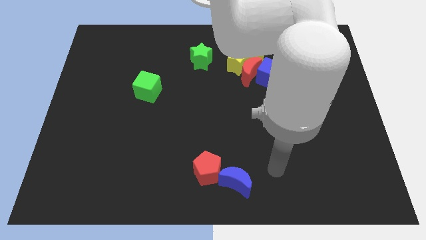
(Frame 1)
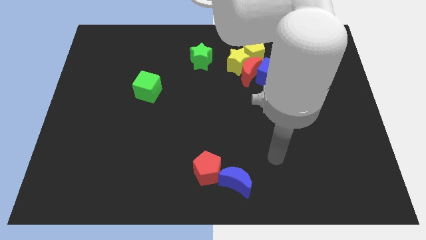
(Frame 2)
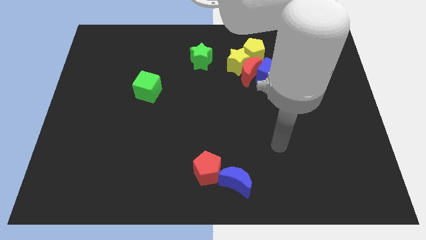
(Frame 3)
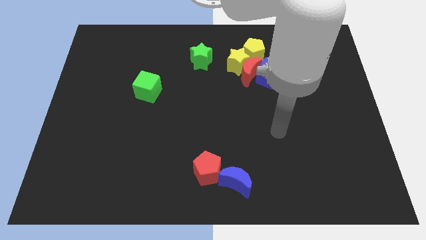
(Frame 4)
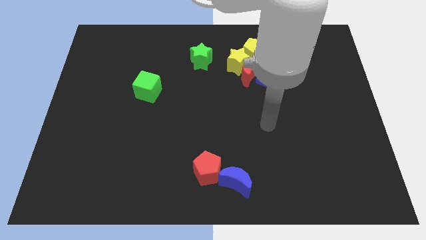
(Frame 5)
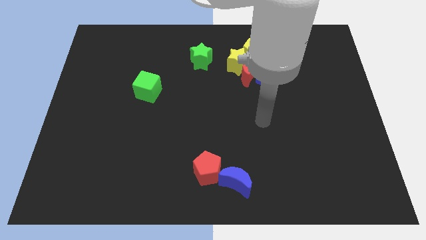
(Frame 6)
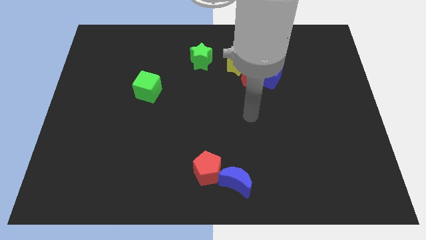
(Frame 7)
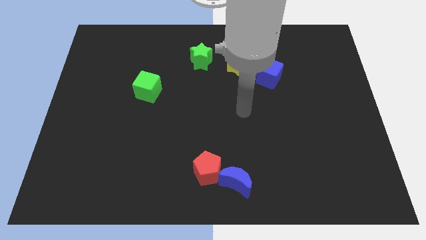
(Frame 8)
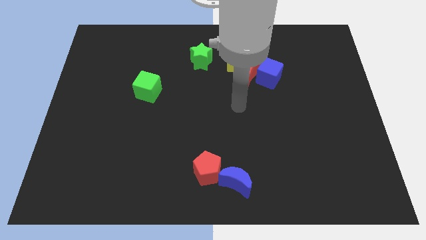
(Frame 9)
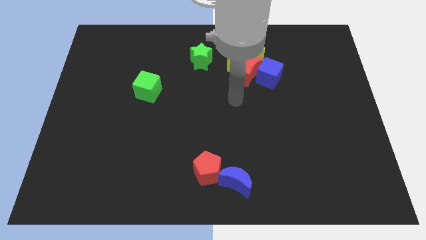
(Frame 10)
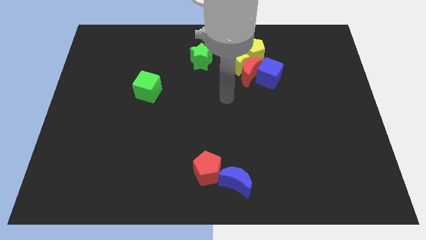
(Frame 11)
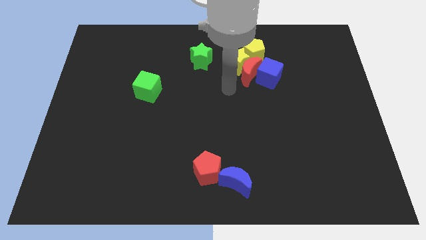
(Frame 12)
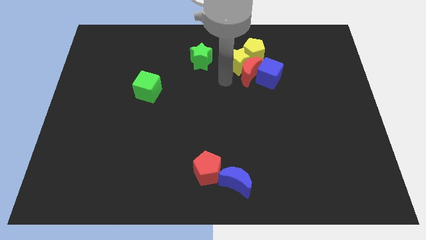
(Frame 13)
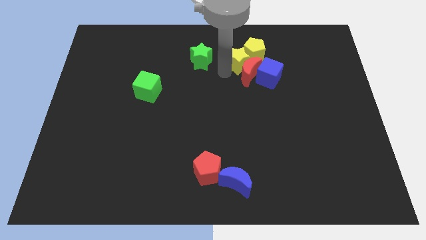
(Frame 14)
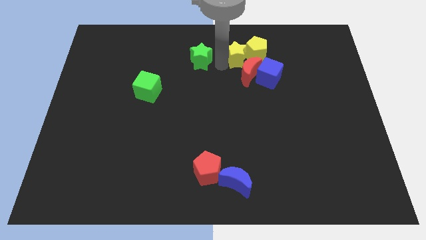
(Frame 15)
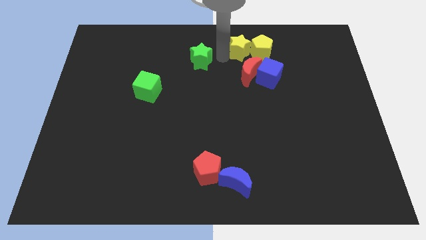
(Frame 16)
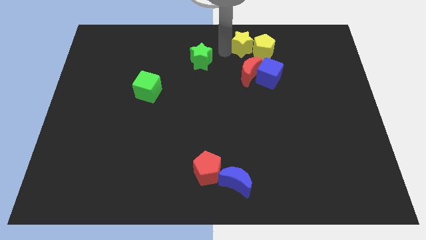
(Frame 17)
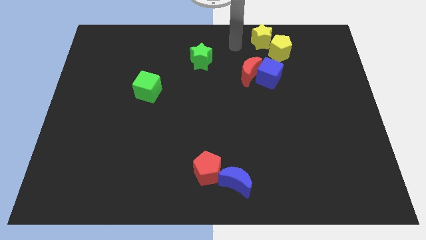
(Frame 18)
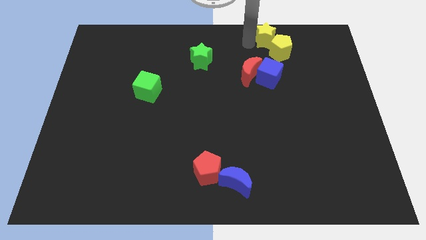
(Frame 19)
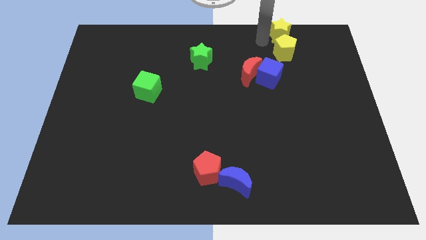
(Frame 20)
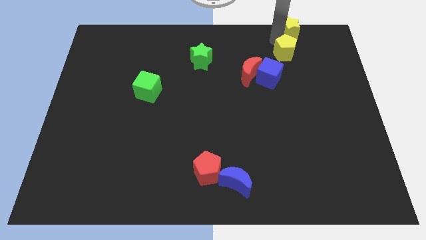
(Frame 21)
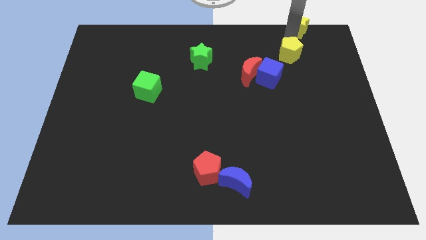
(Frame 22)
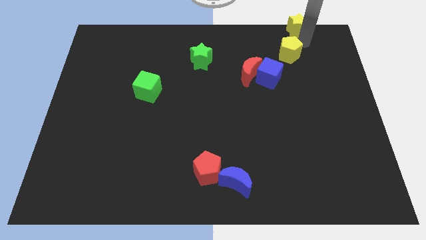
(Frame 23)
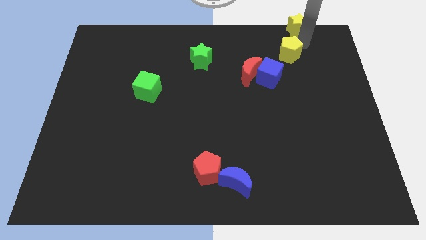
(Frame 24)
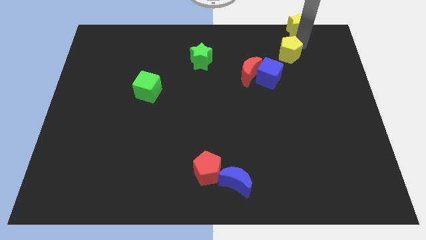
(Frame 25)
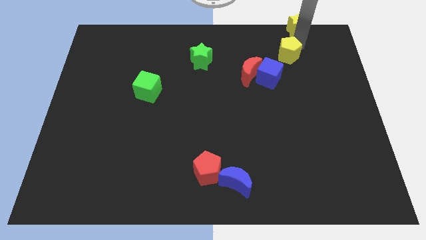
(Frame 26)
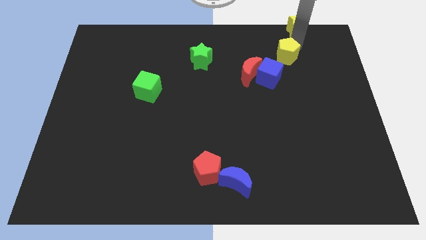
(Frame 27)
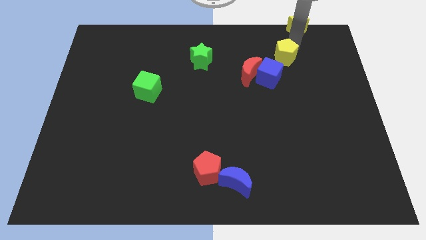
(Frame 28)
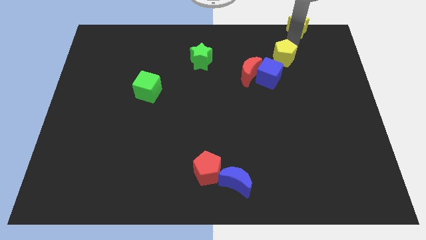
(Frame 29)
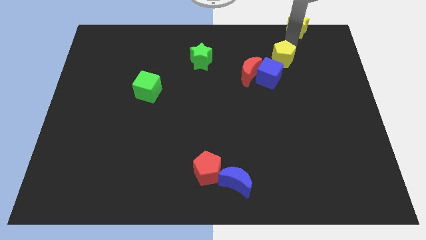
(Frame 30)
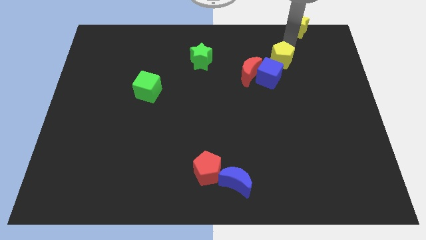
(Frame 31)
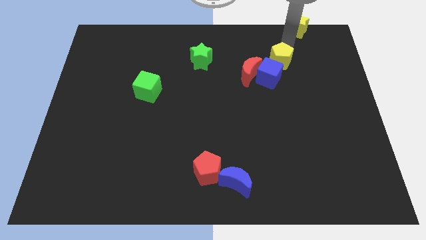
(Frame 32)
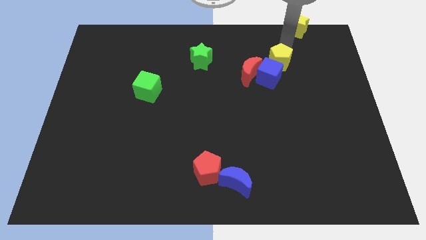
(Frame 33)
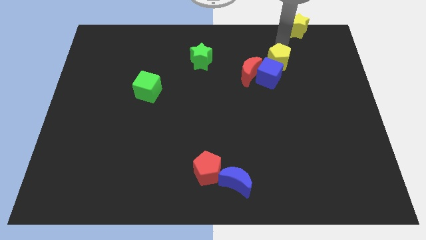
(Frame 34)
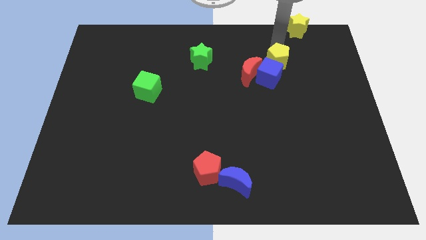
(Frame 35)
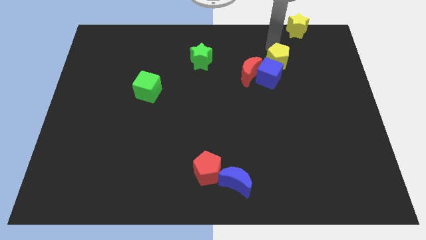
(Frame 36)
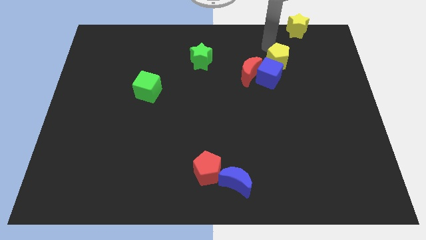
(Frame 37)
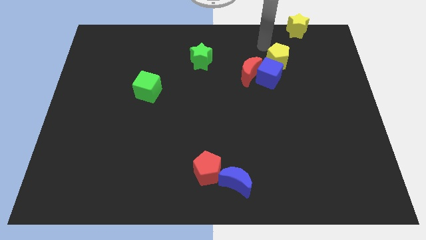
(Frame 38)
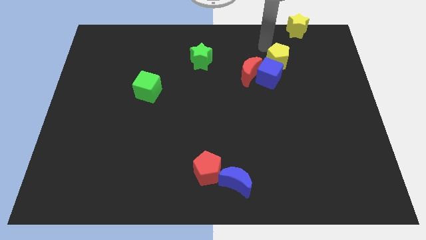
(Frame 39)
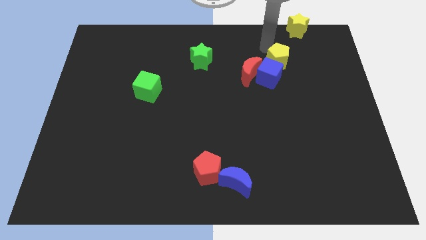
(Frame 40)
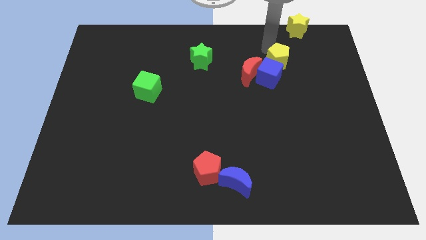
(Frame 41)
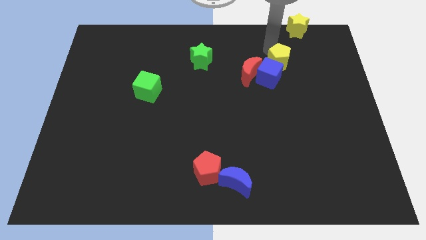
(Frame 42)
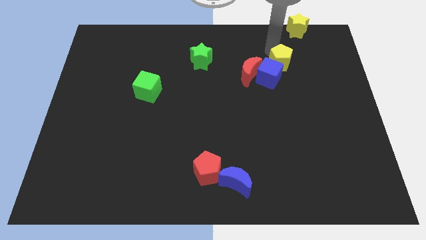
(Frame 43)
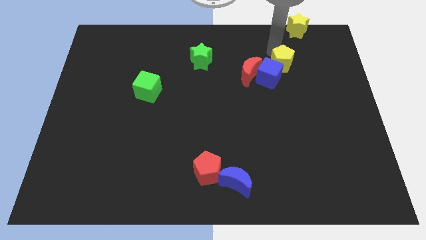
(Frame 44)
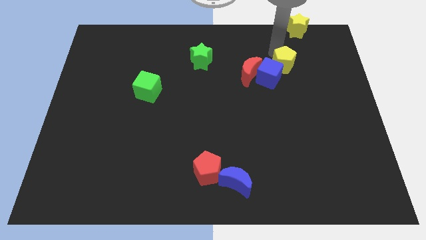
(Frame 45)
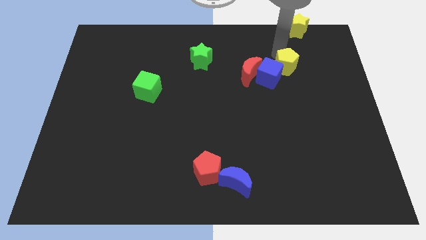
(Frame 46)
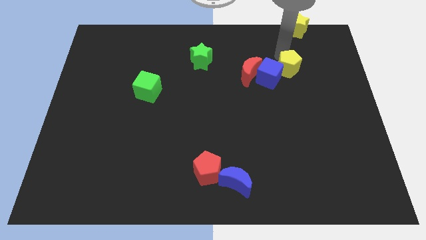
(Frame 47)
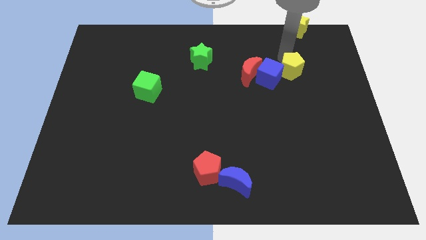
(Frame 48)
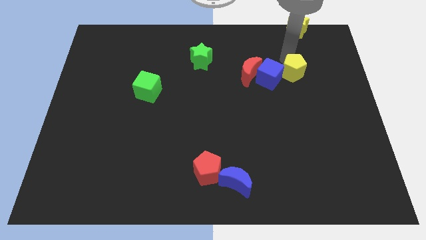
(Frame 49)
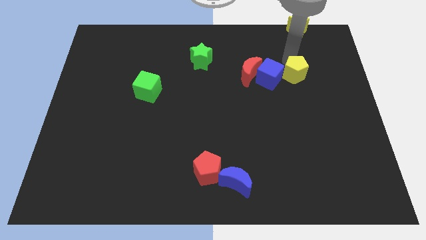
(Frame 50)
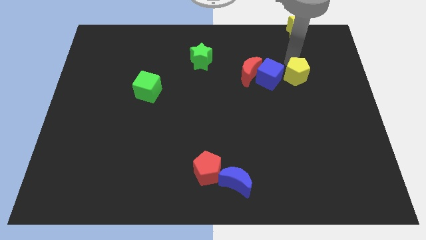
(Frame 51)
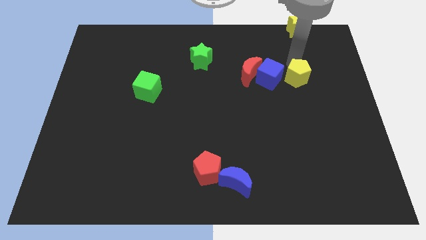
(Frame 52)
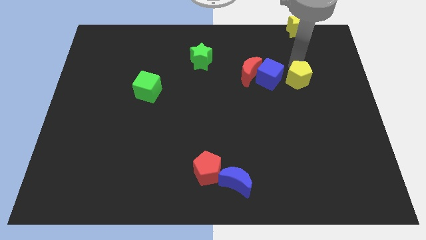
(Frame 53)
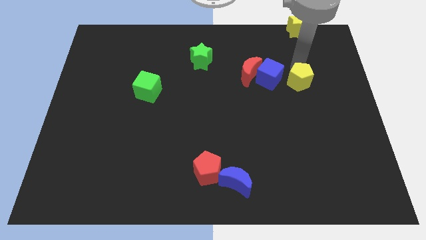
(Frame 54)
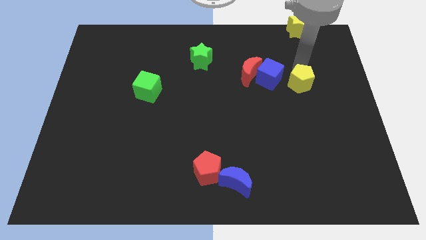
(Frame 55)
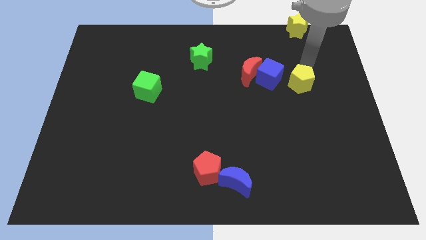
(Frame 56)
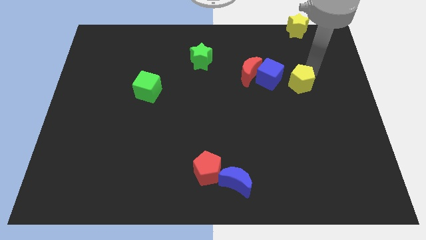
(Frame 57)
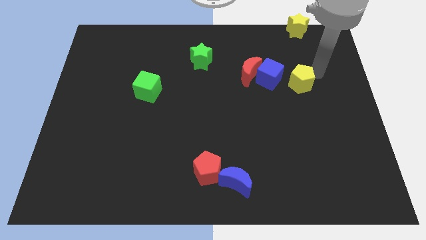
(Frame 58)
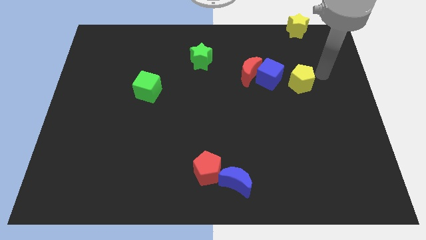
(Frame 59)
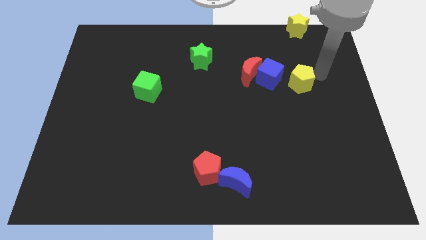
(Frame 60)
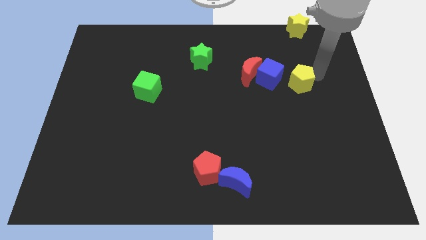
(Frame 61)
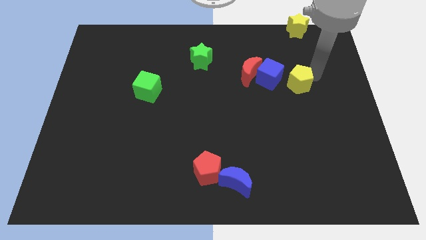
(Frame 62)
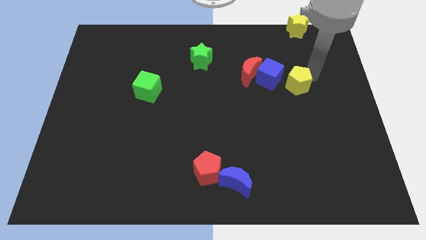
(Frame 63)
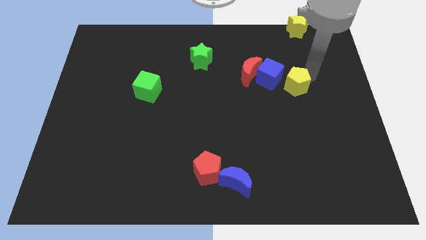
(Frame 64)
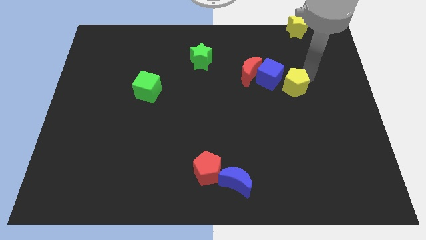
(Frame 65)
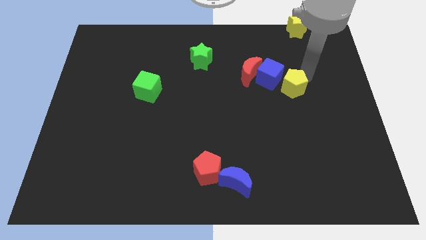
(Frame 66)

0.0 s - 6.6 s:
slightly push the yellow pentagon down

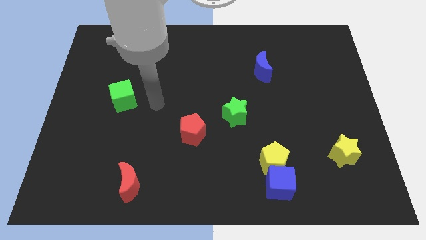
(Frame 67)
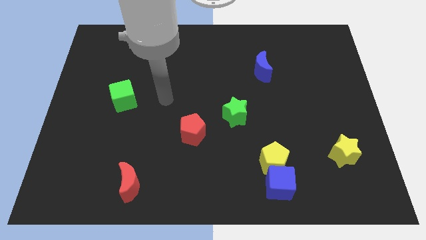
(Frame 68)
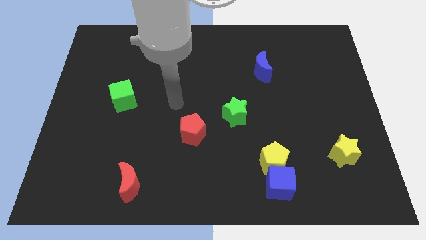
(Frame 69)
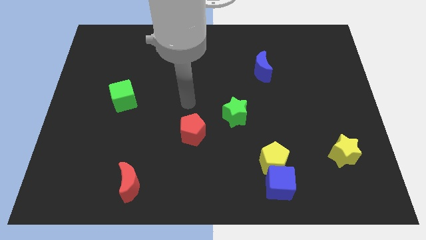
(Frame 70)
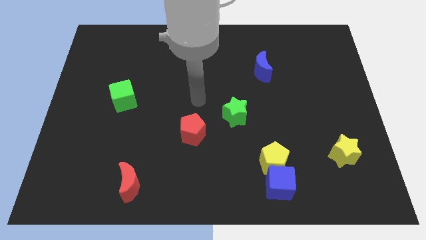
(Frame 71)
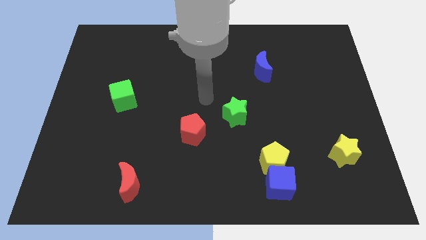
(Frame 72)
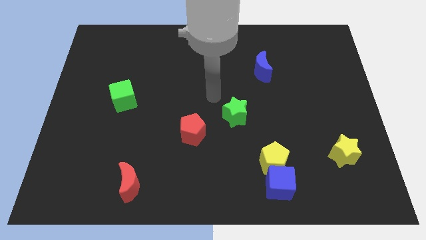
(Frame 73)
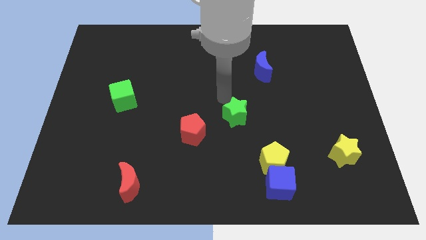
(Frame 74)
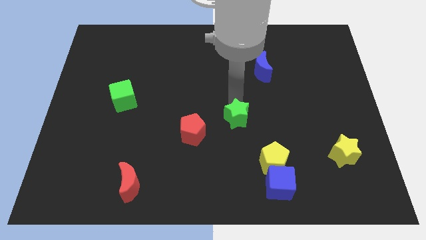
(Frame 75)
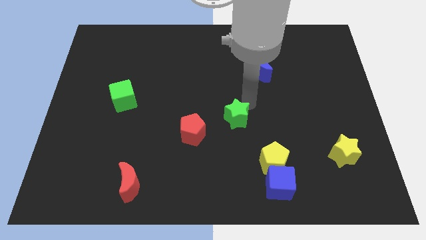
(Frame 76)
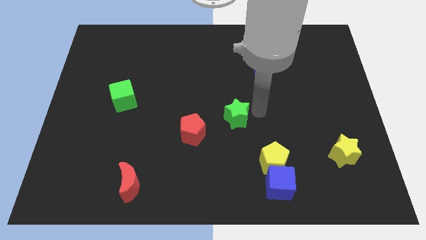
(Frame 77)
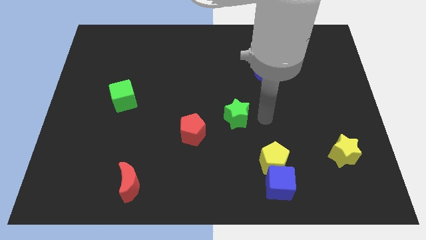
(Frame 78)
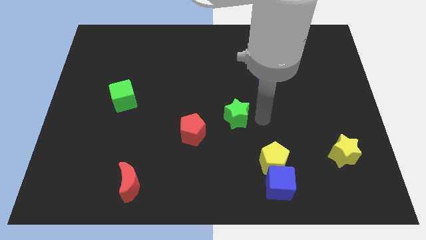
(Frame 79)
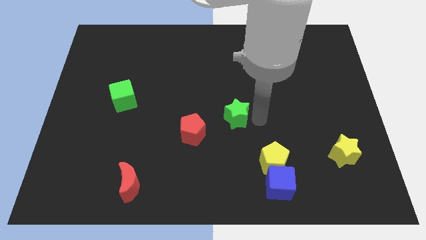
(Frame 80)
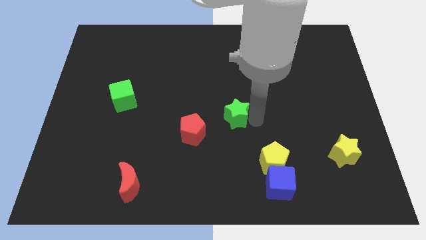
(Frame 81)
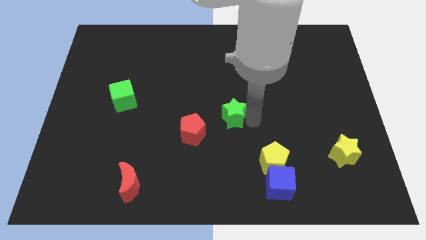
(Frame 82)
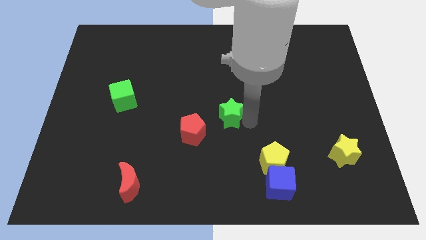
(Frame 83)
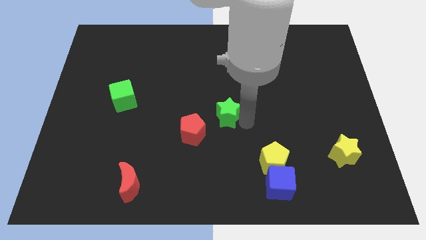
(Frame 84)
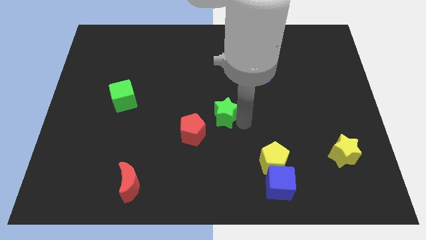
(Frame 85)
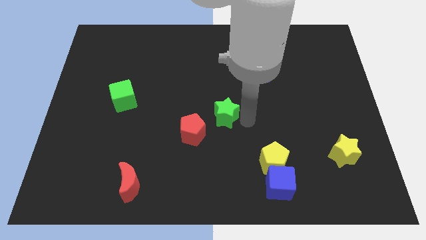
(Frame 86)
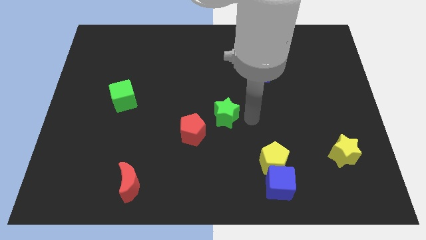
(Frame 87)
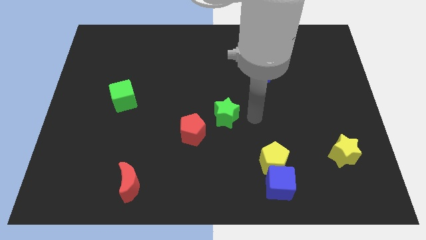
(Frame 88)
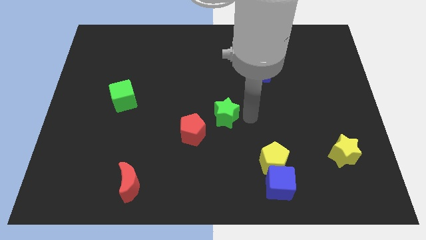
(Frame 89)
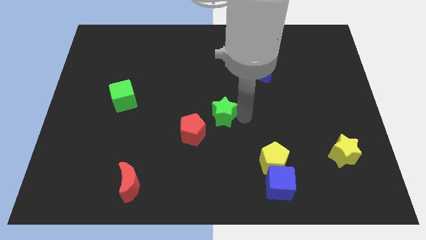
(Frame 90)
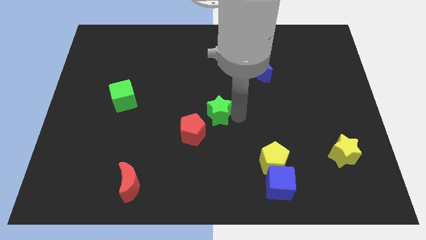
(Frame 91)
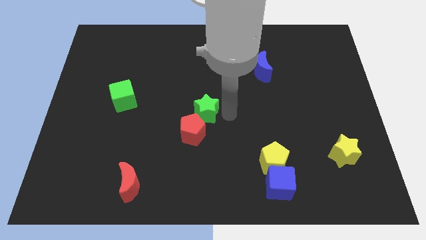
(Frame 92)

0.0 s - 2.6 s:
slightly push the green star to the left
